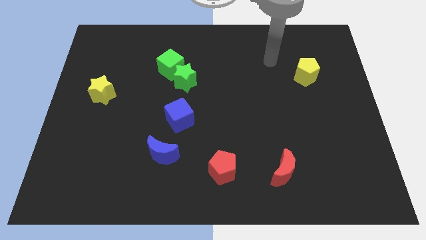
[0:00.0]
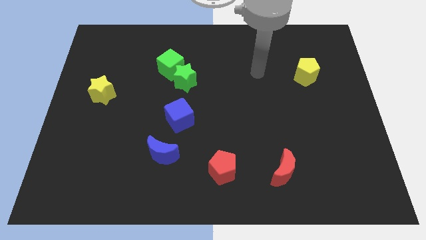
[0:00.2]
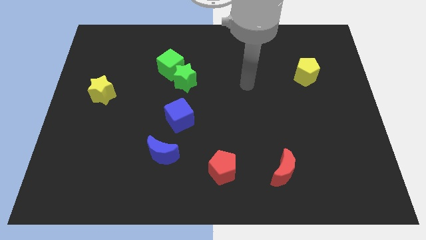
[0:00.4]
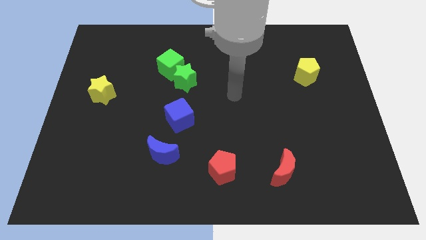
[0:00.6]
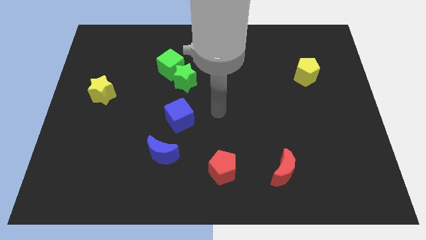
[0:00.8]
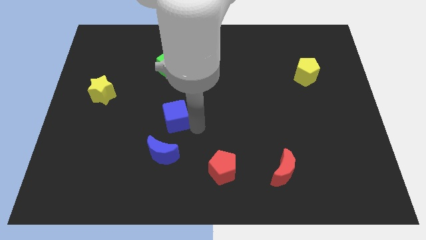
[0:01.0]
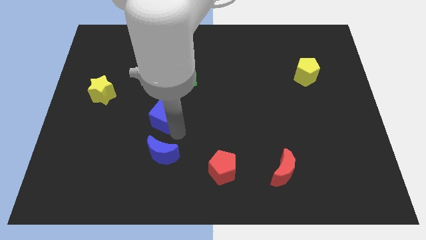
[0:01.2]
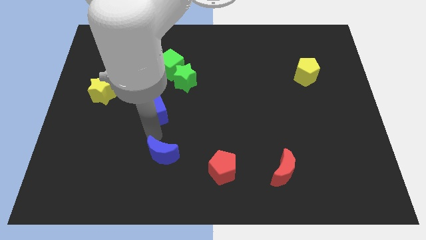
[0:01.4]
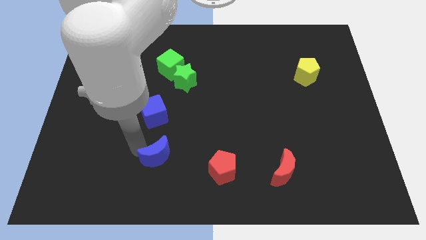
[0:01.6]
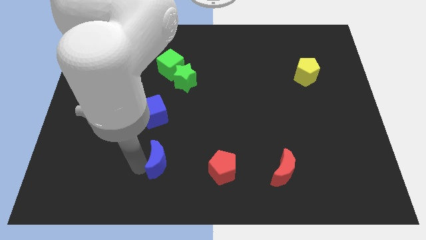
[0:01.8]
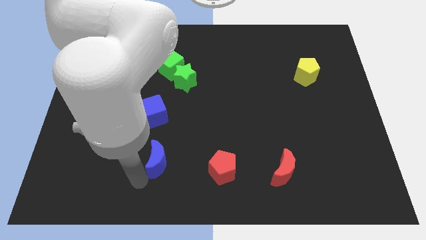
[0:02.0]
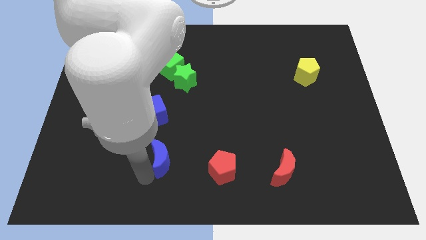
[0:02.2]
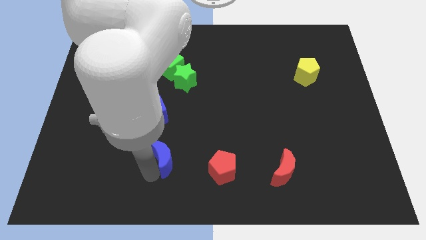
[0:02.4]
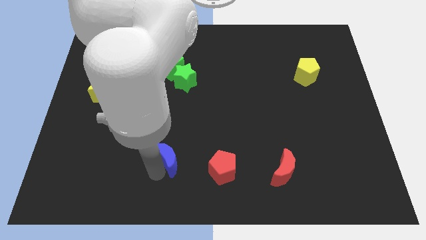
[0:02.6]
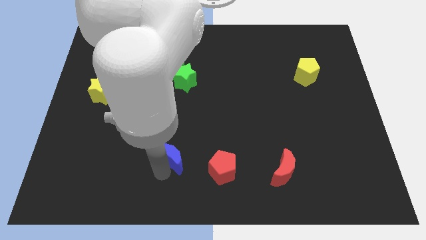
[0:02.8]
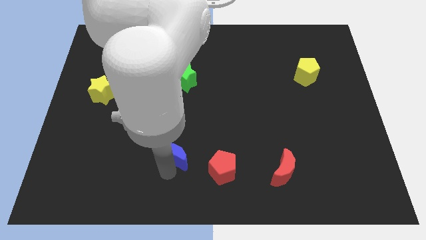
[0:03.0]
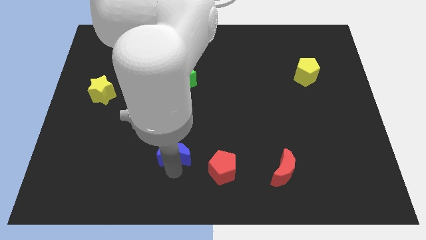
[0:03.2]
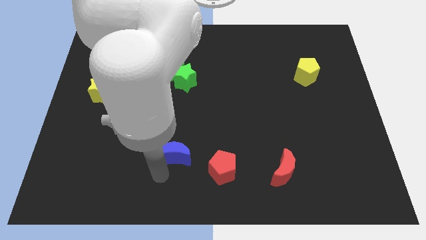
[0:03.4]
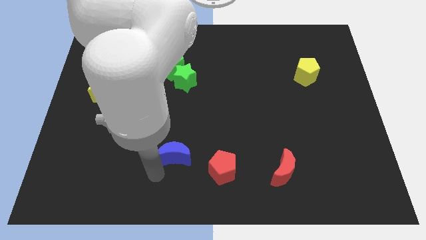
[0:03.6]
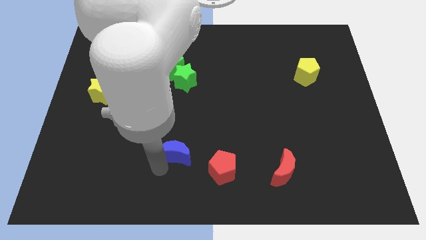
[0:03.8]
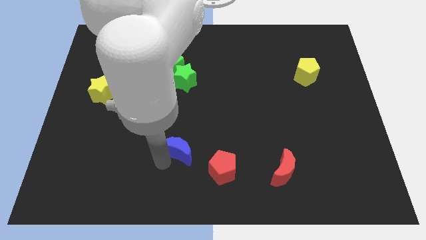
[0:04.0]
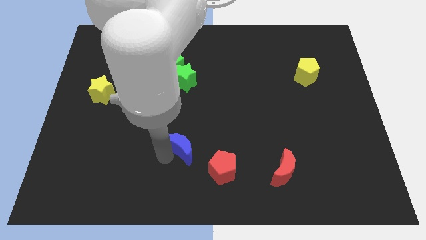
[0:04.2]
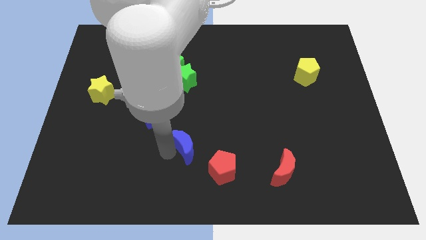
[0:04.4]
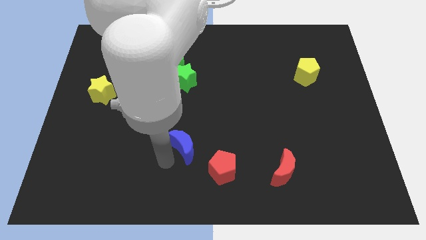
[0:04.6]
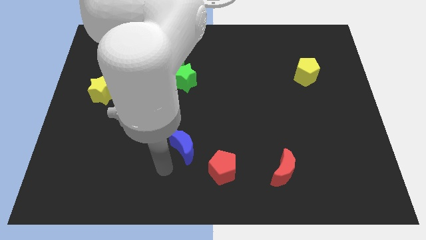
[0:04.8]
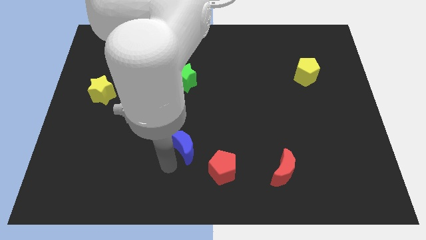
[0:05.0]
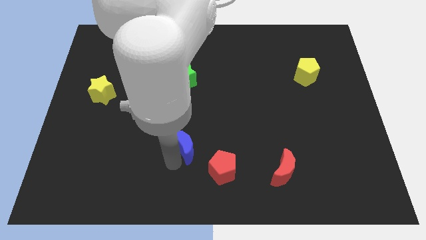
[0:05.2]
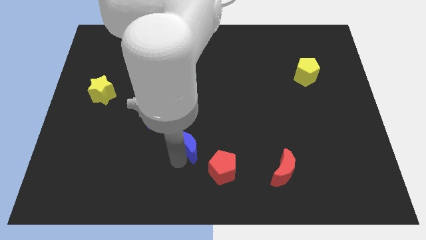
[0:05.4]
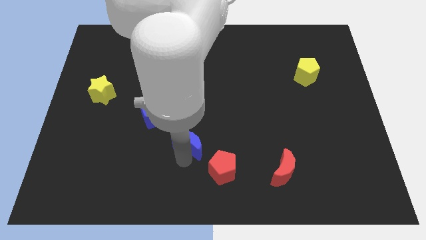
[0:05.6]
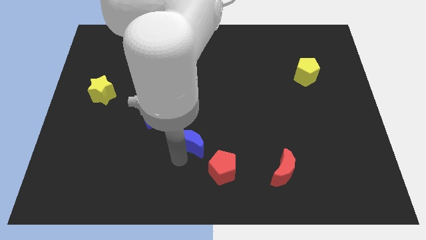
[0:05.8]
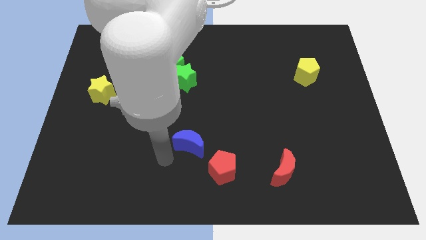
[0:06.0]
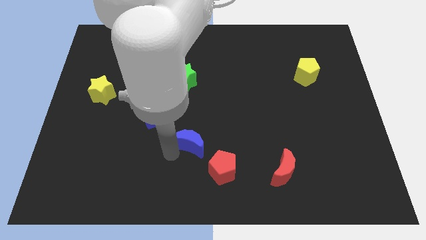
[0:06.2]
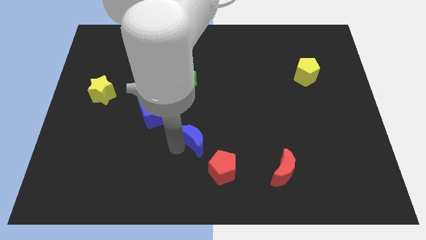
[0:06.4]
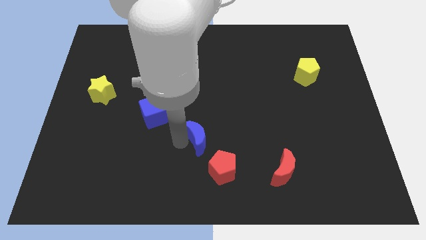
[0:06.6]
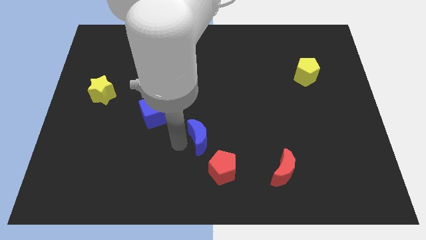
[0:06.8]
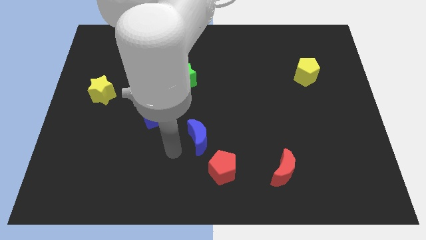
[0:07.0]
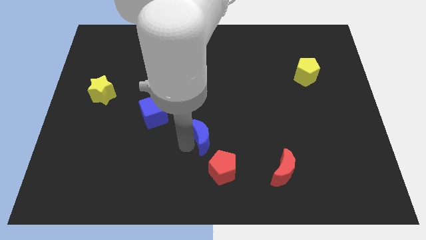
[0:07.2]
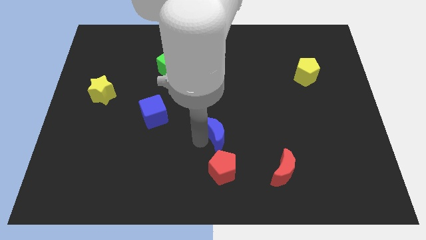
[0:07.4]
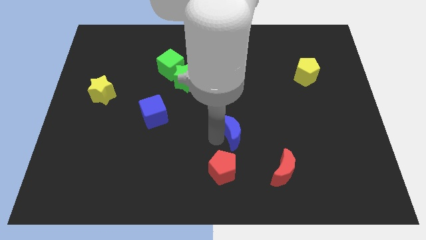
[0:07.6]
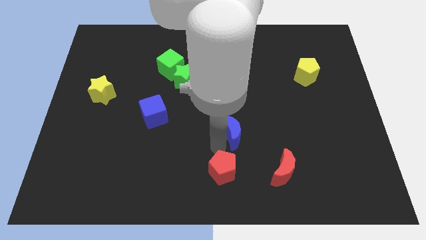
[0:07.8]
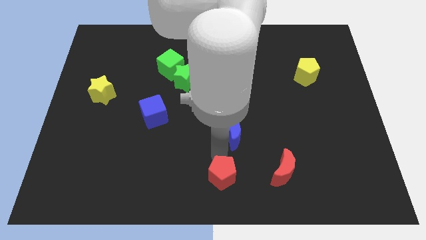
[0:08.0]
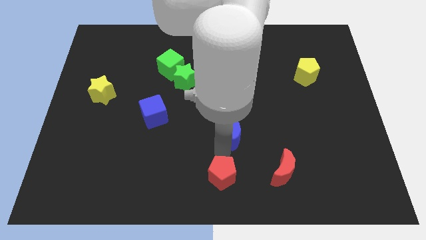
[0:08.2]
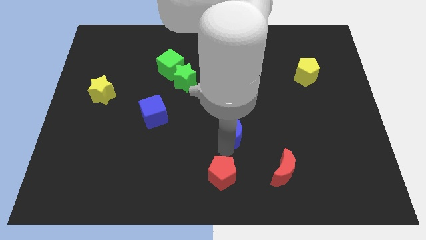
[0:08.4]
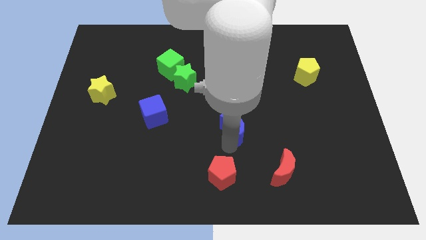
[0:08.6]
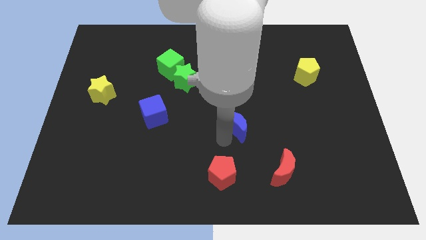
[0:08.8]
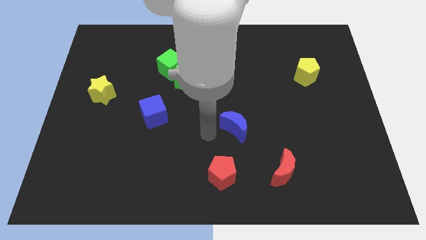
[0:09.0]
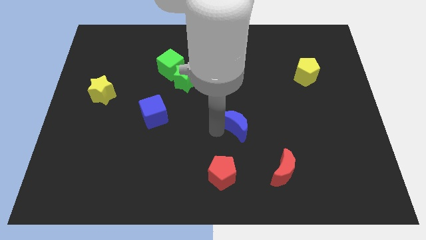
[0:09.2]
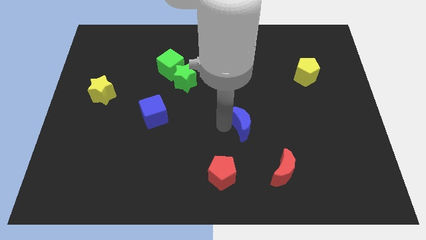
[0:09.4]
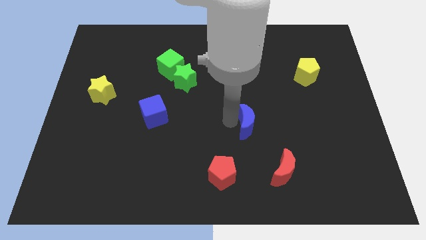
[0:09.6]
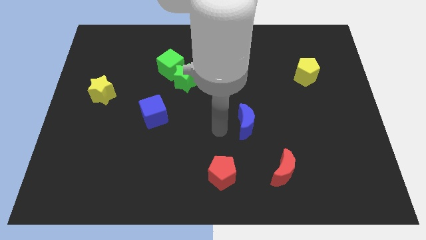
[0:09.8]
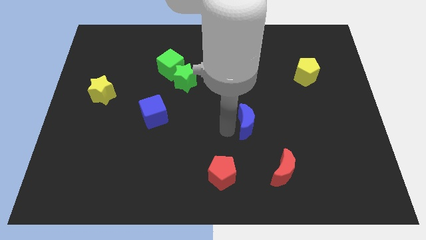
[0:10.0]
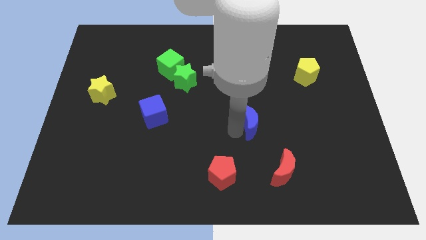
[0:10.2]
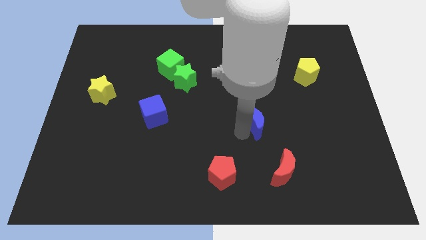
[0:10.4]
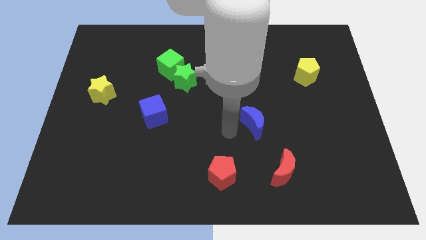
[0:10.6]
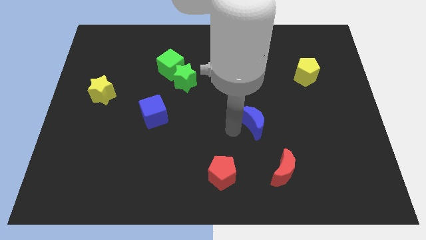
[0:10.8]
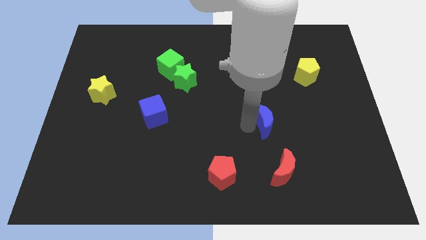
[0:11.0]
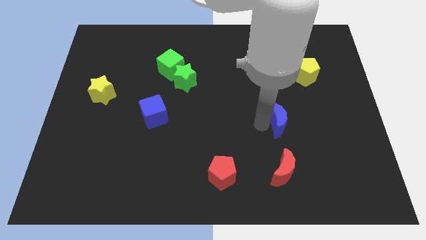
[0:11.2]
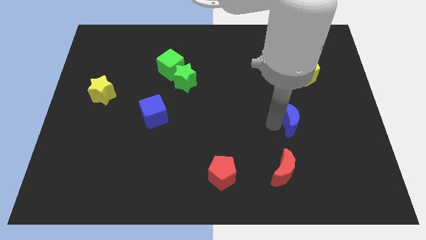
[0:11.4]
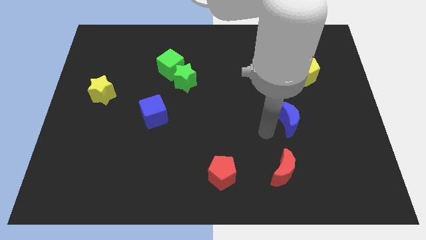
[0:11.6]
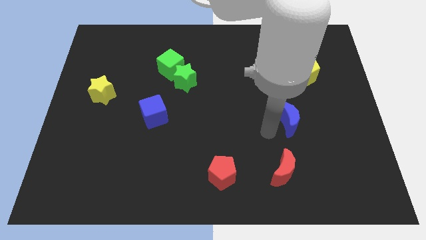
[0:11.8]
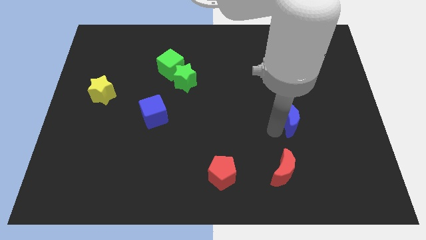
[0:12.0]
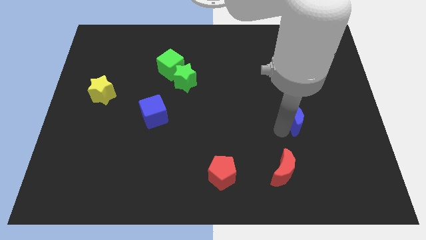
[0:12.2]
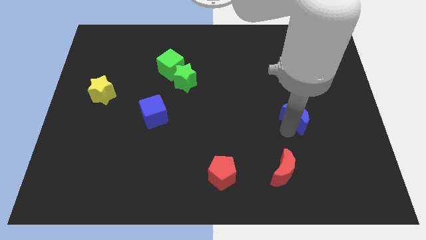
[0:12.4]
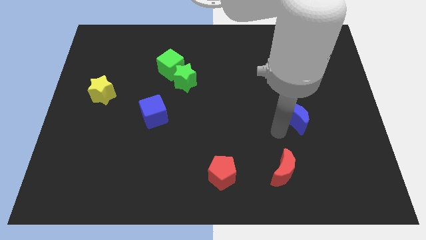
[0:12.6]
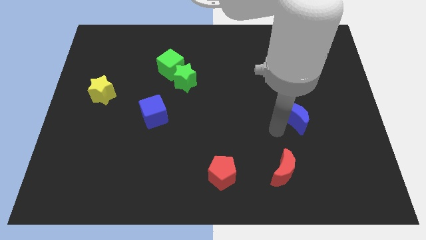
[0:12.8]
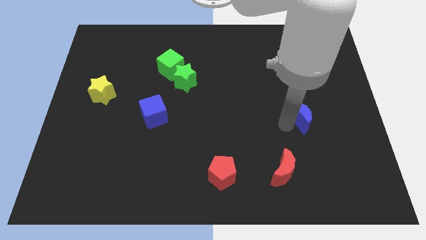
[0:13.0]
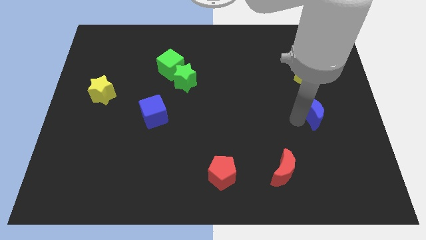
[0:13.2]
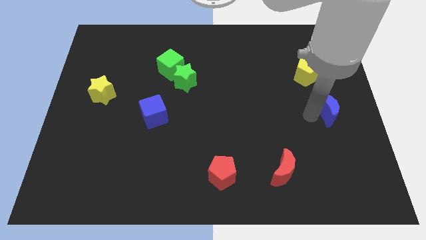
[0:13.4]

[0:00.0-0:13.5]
move the blue moon to the center right
